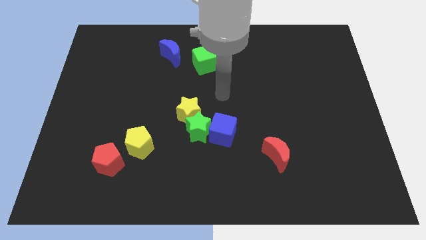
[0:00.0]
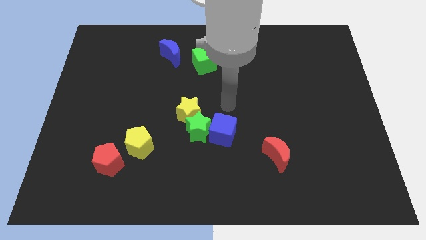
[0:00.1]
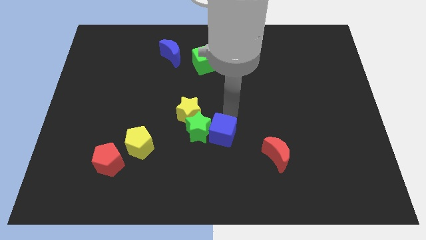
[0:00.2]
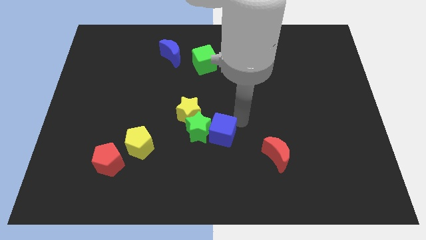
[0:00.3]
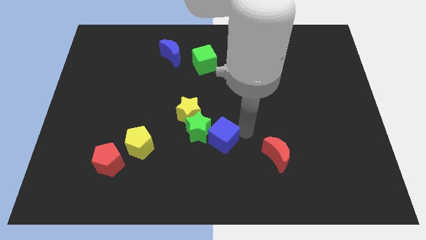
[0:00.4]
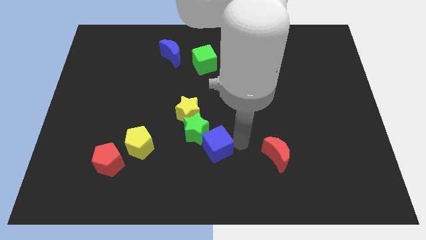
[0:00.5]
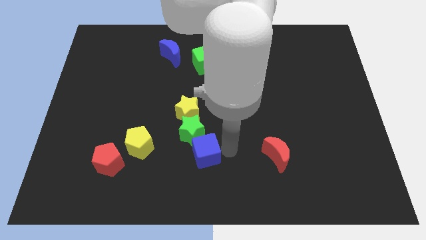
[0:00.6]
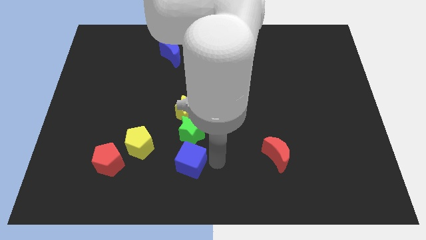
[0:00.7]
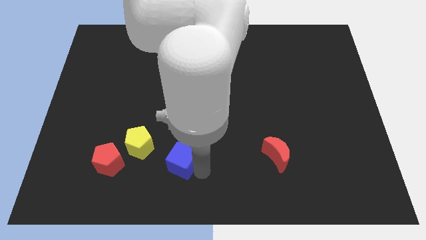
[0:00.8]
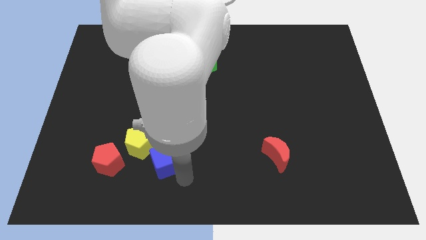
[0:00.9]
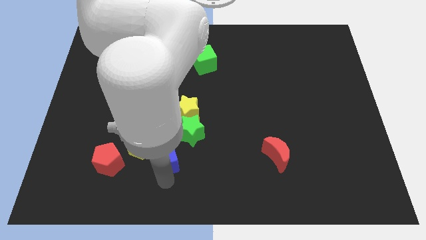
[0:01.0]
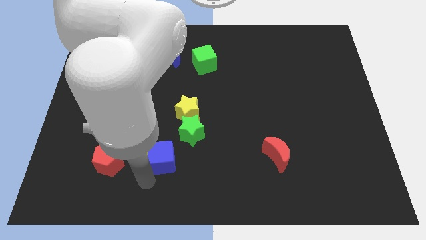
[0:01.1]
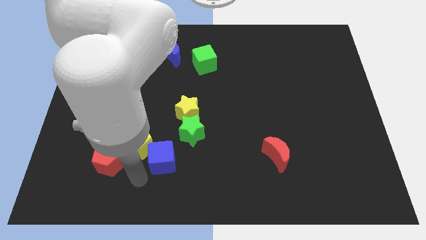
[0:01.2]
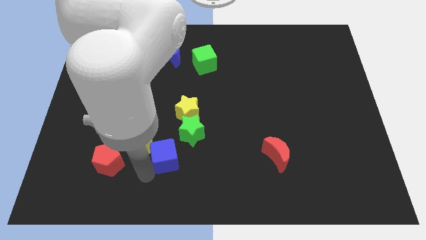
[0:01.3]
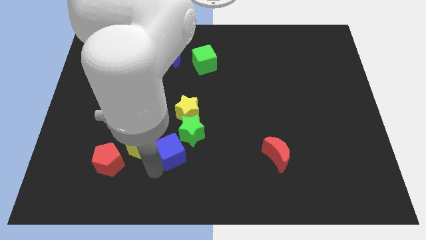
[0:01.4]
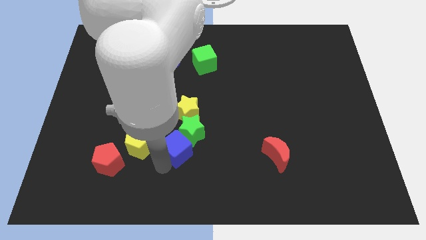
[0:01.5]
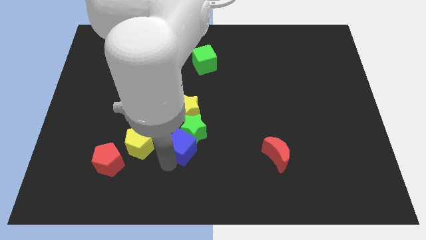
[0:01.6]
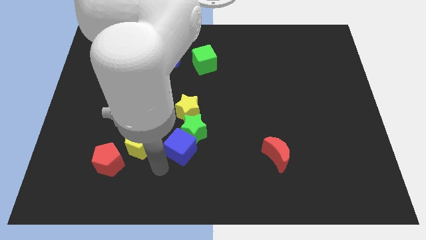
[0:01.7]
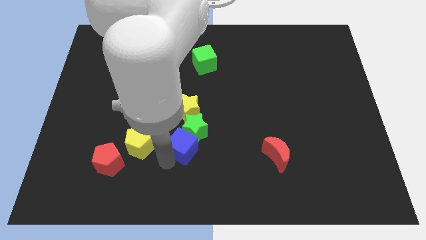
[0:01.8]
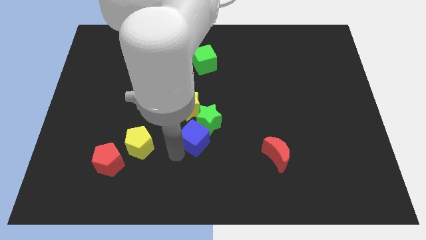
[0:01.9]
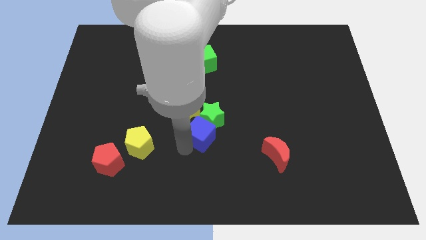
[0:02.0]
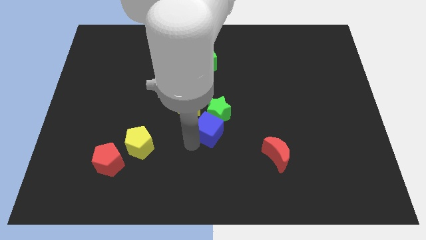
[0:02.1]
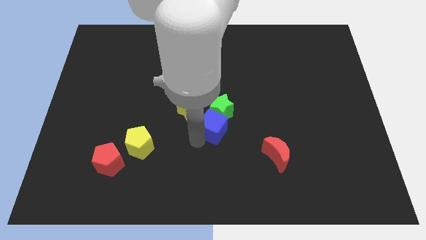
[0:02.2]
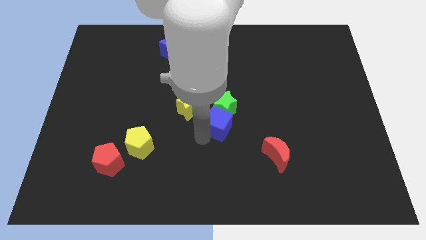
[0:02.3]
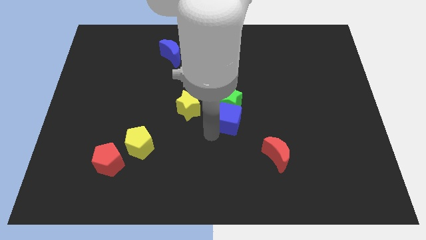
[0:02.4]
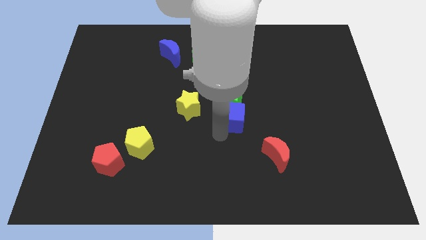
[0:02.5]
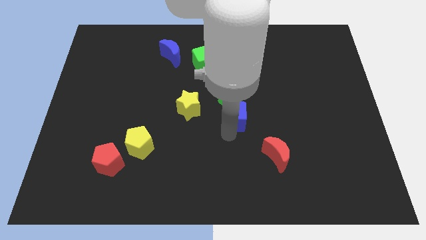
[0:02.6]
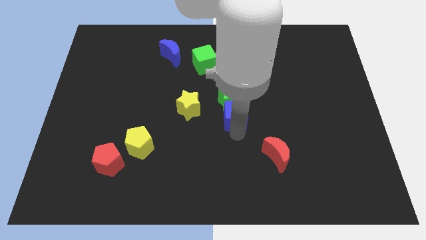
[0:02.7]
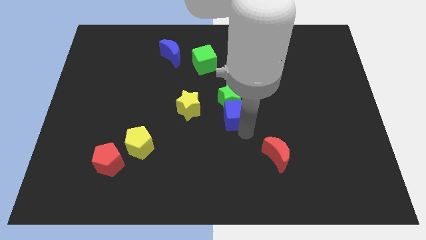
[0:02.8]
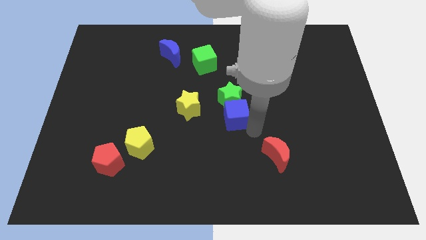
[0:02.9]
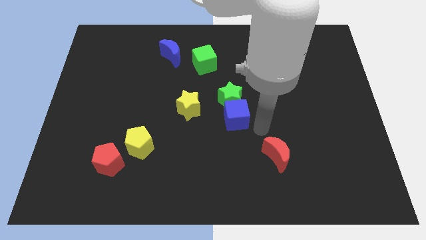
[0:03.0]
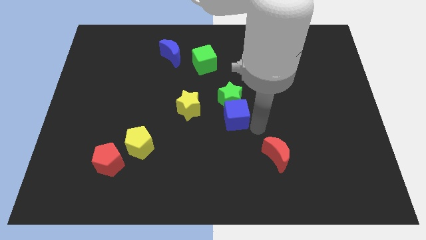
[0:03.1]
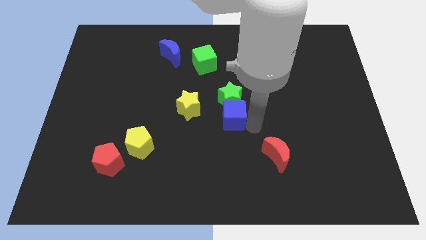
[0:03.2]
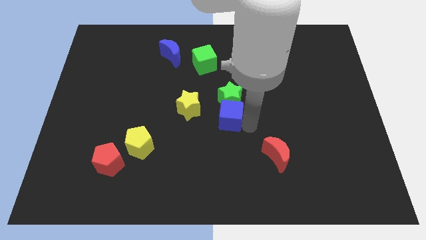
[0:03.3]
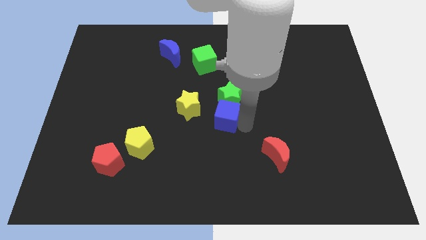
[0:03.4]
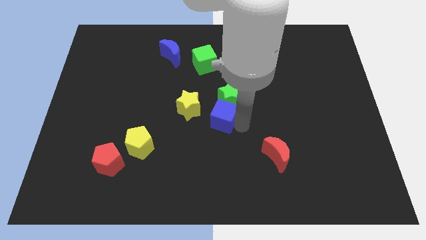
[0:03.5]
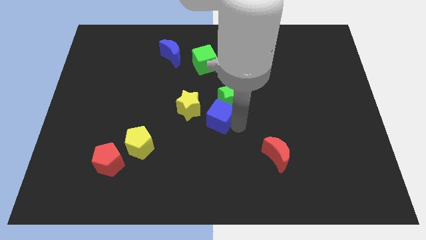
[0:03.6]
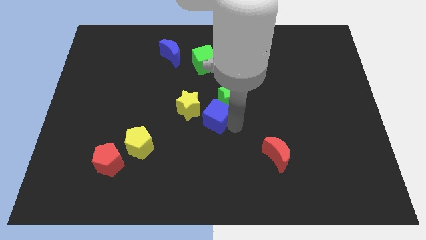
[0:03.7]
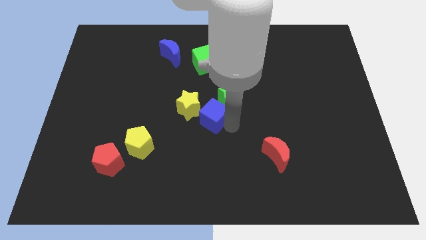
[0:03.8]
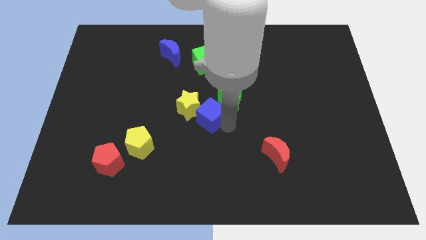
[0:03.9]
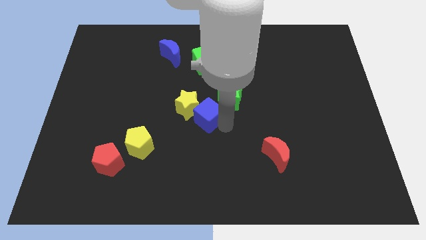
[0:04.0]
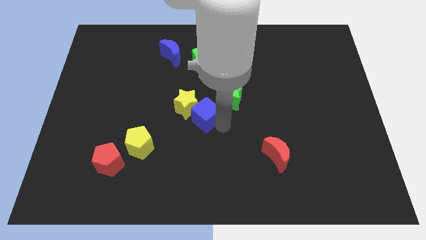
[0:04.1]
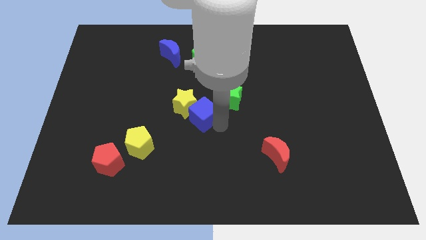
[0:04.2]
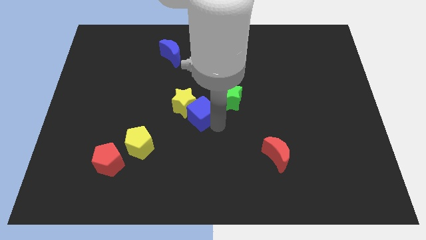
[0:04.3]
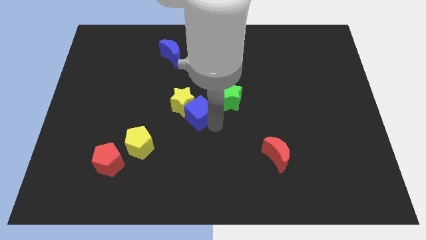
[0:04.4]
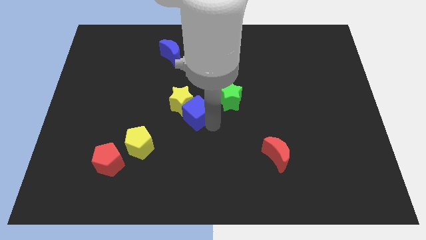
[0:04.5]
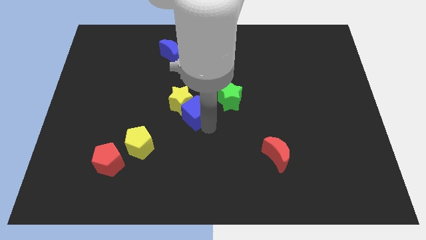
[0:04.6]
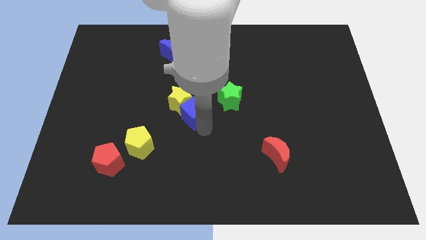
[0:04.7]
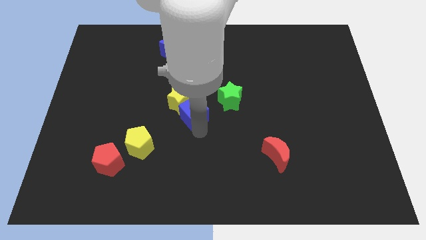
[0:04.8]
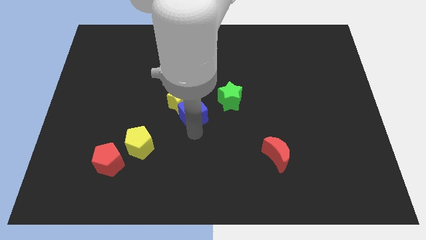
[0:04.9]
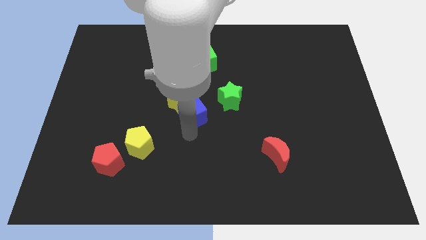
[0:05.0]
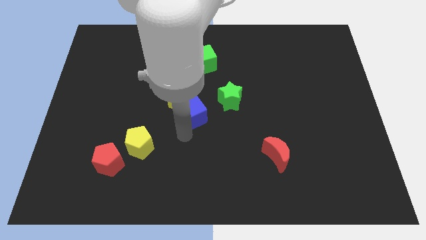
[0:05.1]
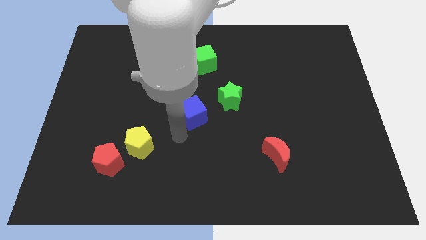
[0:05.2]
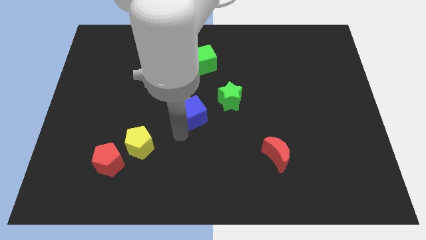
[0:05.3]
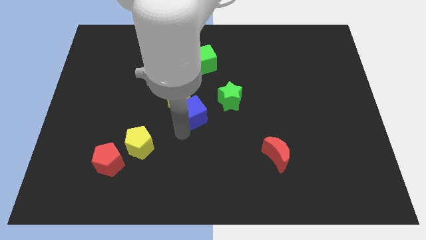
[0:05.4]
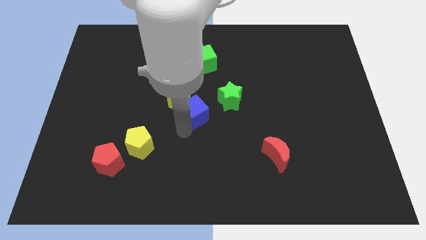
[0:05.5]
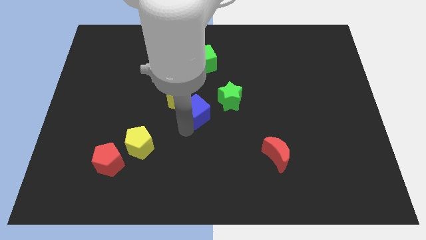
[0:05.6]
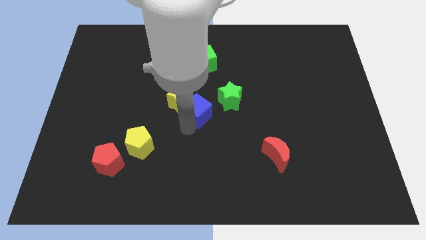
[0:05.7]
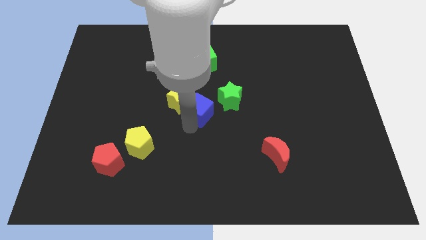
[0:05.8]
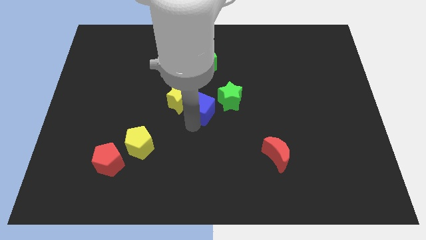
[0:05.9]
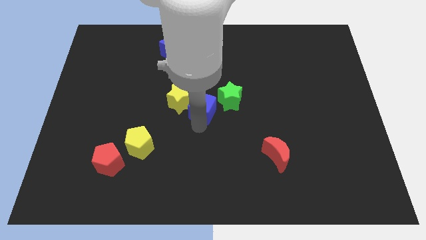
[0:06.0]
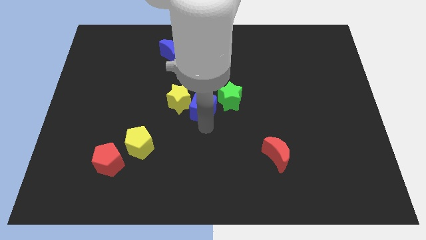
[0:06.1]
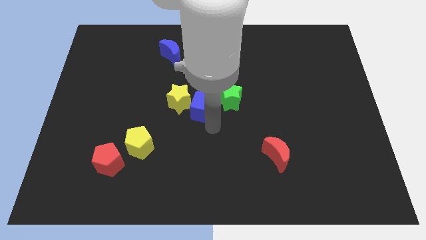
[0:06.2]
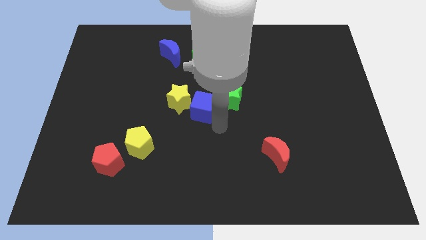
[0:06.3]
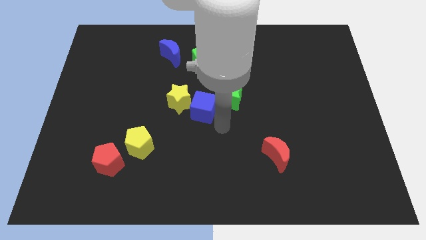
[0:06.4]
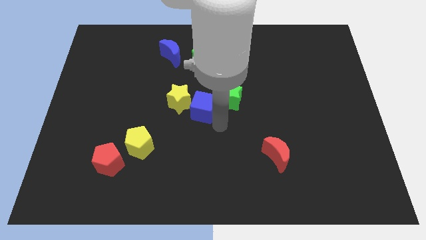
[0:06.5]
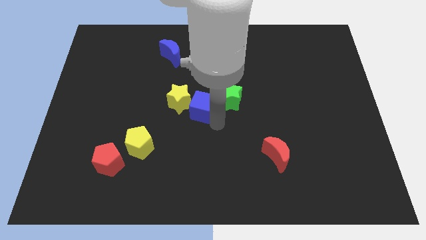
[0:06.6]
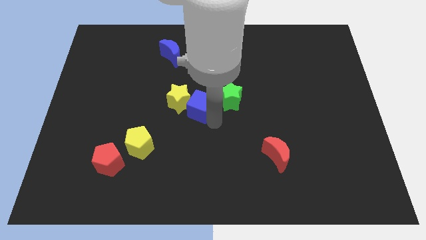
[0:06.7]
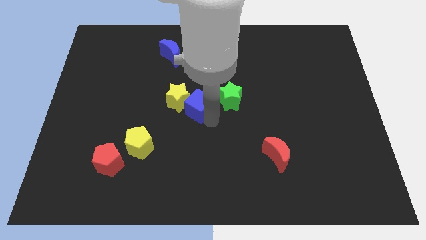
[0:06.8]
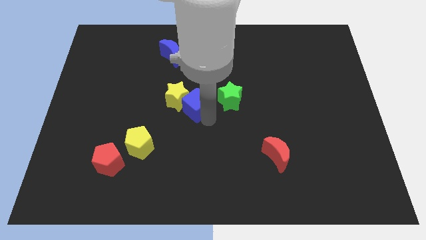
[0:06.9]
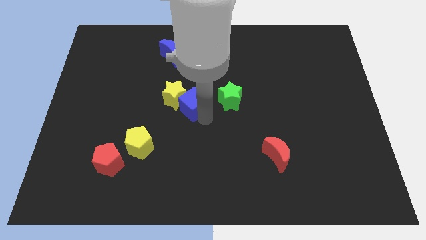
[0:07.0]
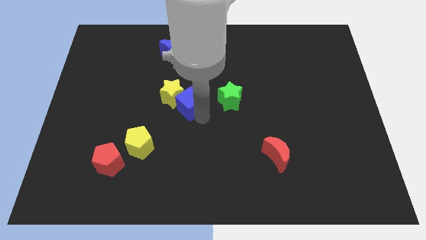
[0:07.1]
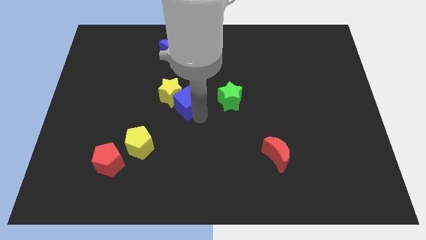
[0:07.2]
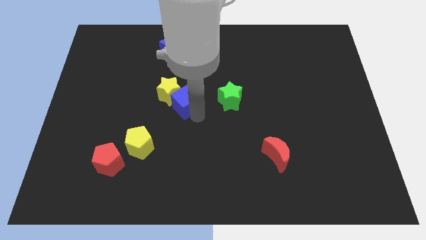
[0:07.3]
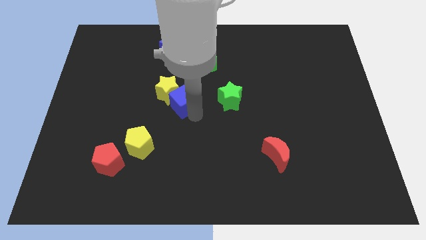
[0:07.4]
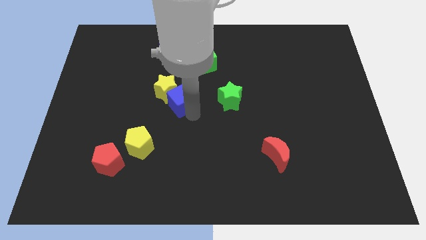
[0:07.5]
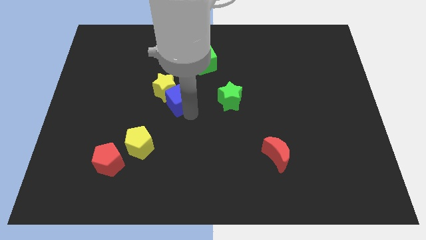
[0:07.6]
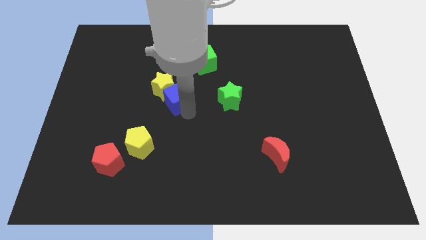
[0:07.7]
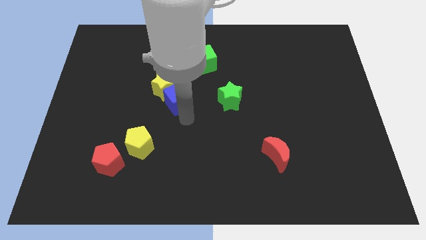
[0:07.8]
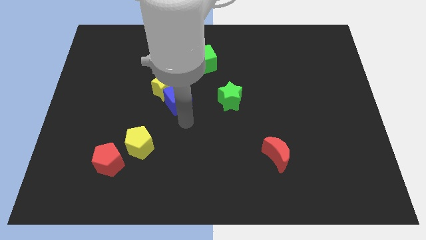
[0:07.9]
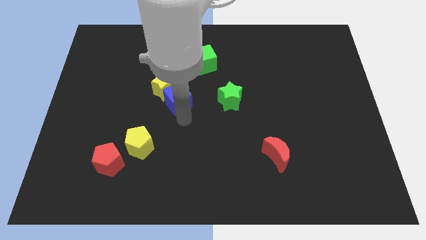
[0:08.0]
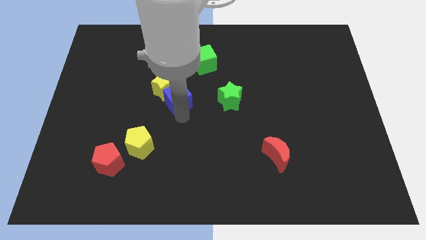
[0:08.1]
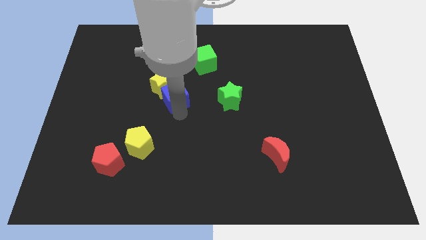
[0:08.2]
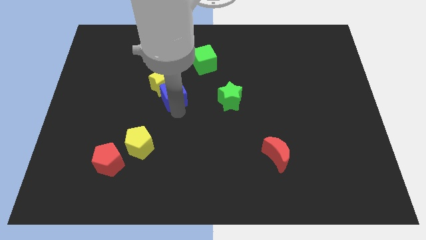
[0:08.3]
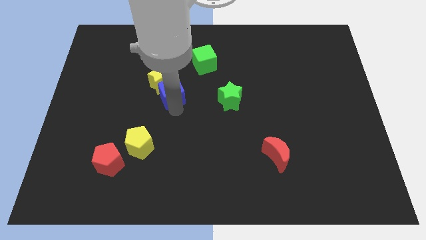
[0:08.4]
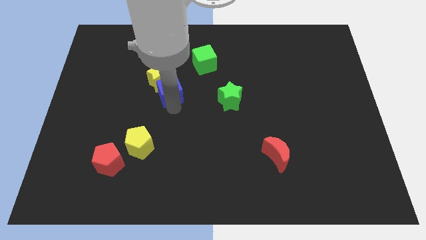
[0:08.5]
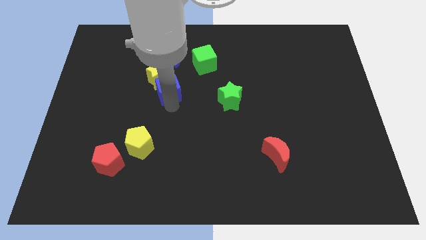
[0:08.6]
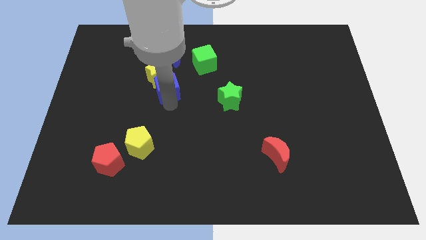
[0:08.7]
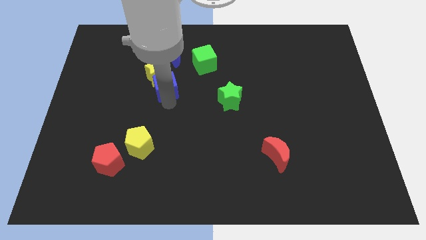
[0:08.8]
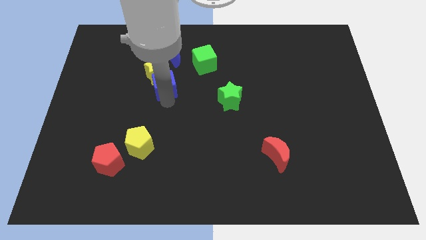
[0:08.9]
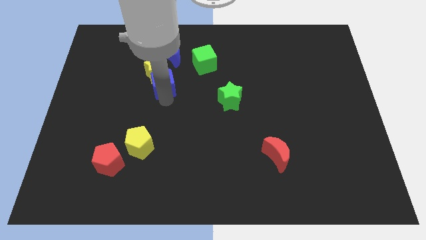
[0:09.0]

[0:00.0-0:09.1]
push the blue cube upwards and to the left
